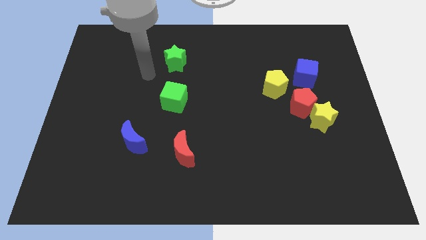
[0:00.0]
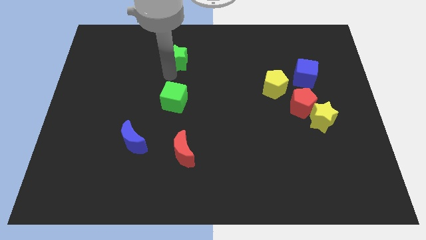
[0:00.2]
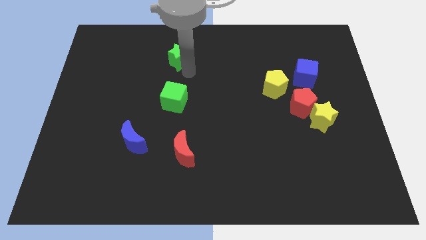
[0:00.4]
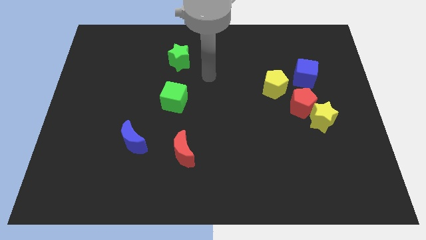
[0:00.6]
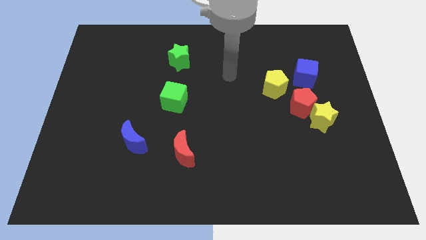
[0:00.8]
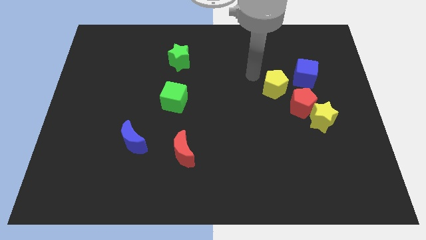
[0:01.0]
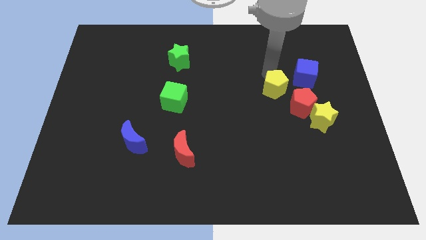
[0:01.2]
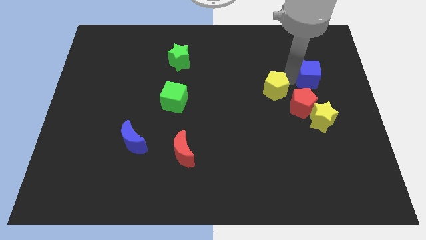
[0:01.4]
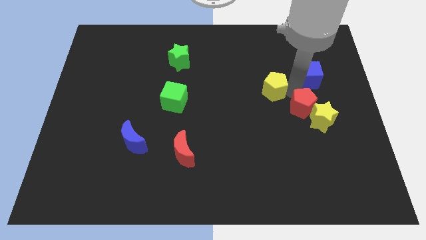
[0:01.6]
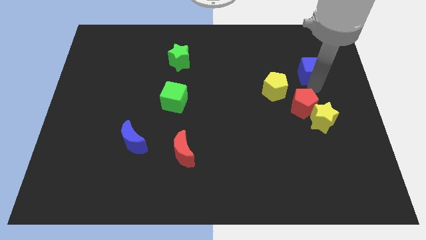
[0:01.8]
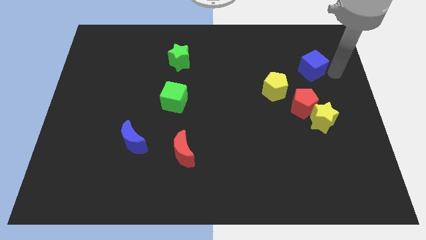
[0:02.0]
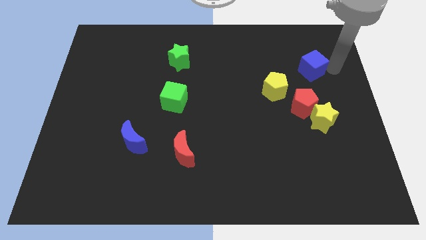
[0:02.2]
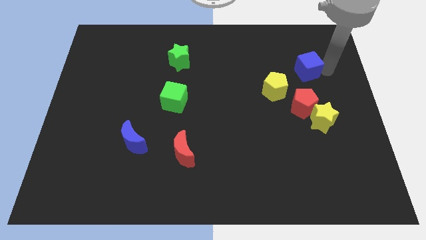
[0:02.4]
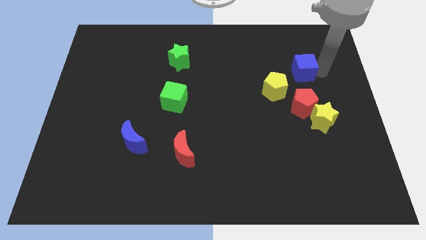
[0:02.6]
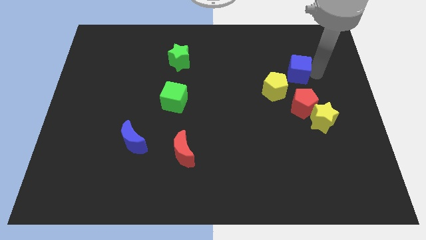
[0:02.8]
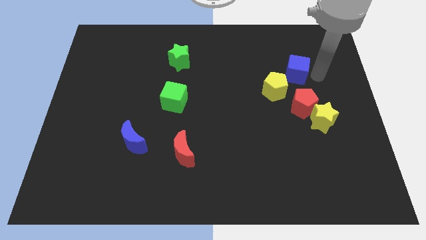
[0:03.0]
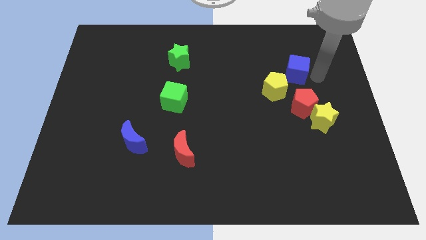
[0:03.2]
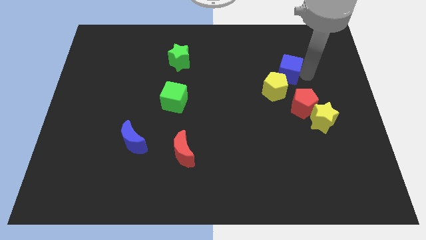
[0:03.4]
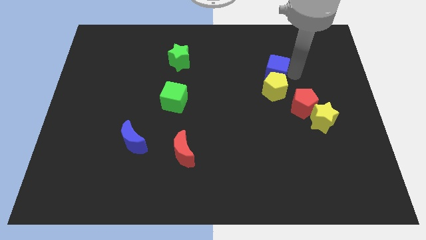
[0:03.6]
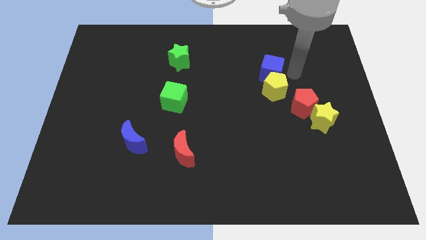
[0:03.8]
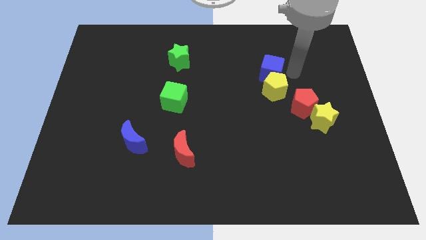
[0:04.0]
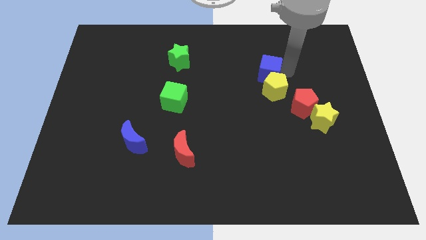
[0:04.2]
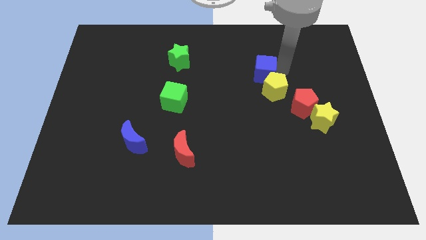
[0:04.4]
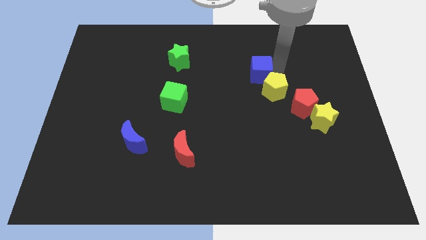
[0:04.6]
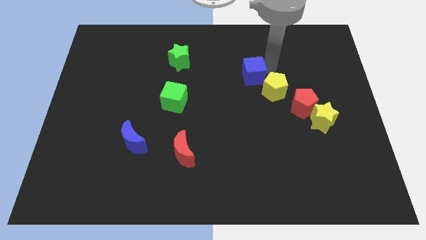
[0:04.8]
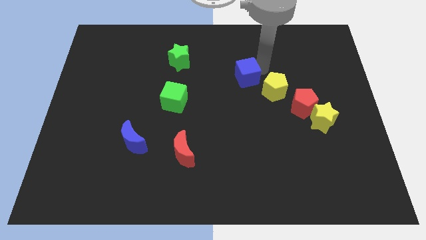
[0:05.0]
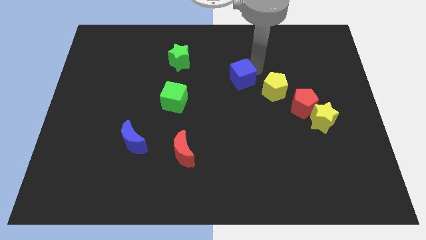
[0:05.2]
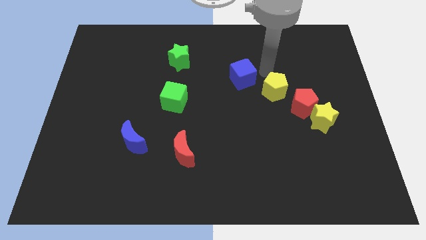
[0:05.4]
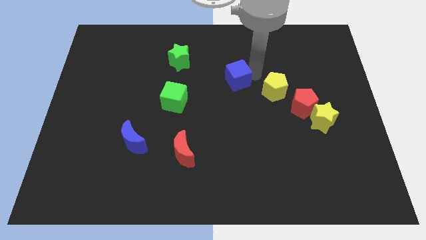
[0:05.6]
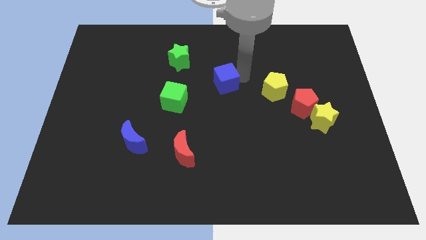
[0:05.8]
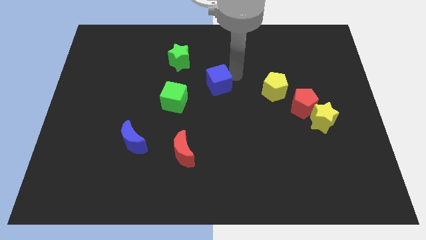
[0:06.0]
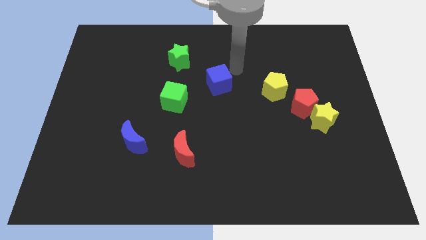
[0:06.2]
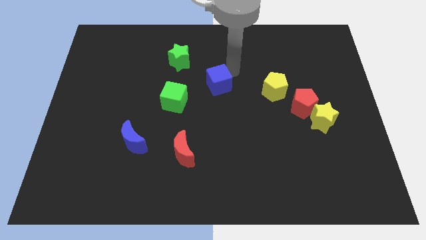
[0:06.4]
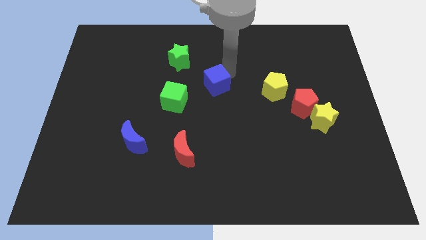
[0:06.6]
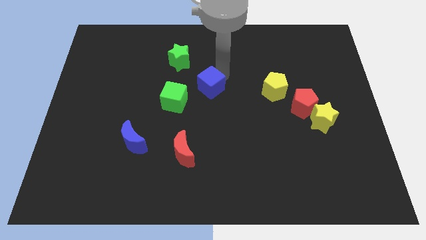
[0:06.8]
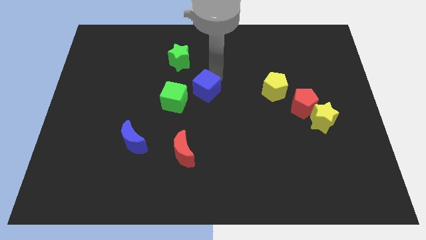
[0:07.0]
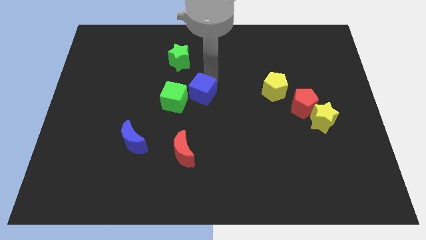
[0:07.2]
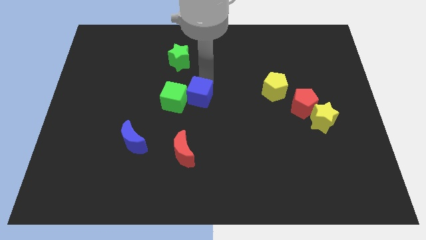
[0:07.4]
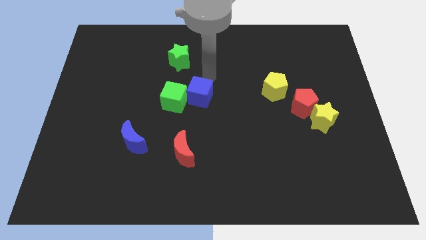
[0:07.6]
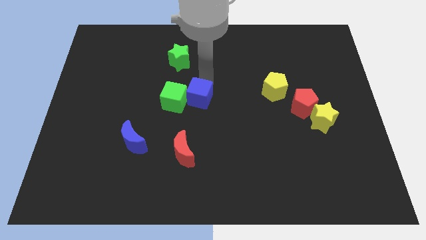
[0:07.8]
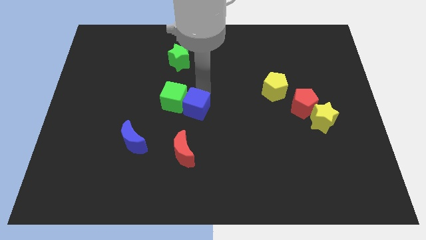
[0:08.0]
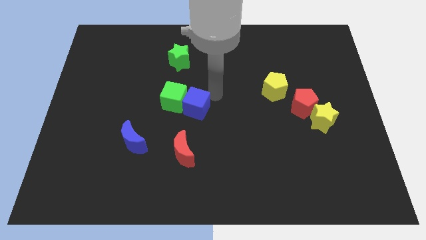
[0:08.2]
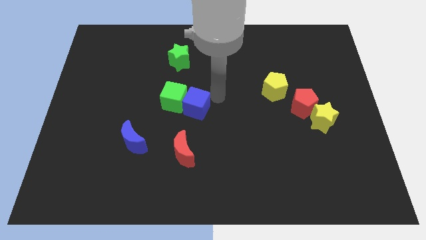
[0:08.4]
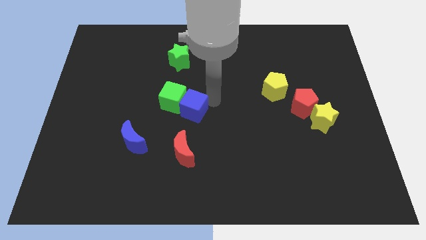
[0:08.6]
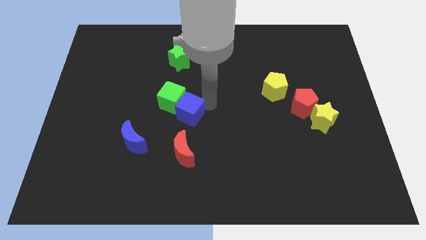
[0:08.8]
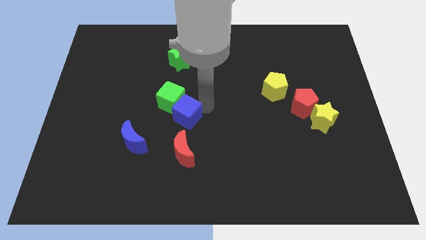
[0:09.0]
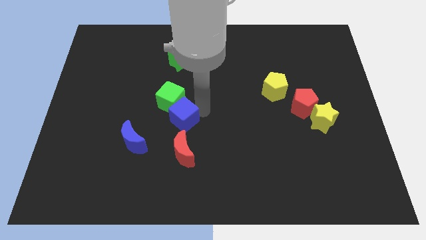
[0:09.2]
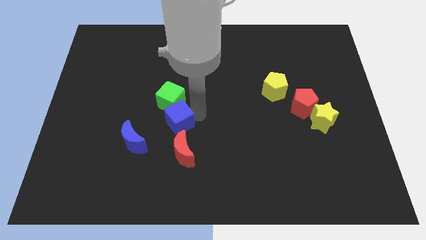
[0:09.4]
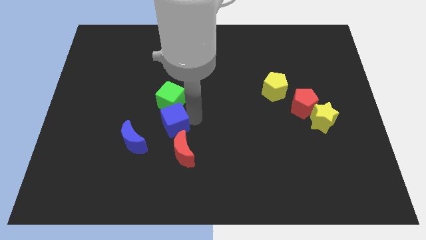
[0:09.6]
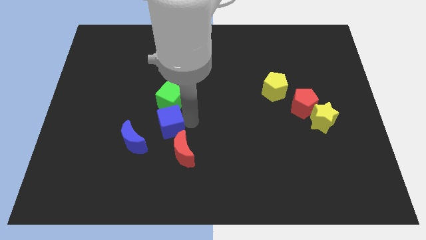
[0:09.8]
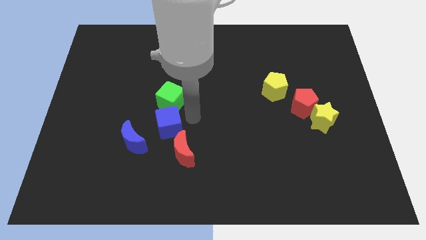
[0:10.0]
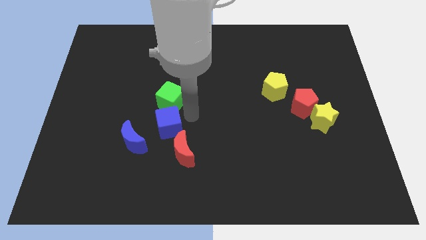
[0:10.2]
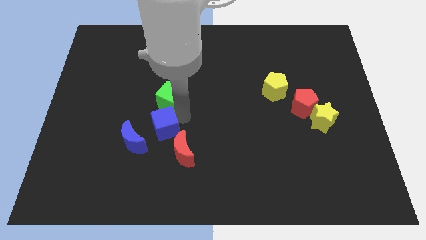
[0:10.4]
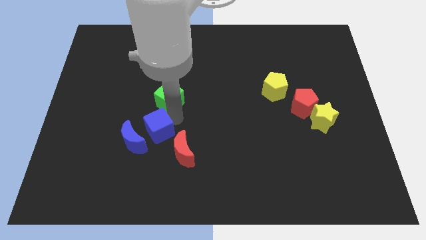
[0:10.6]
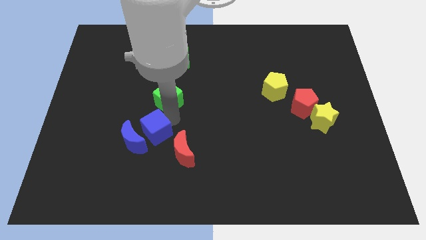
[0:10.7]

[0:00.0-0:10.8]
slide the blue cube to the blue moon

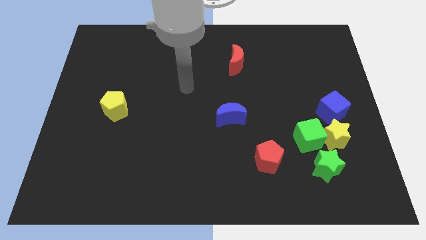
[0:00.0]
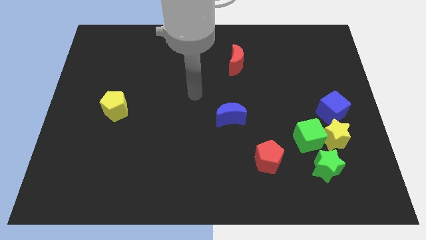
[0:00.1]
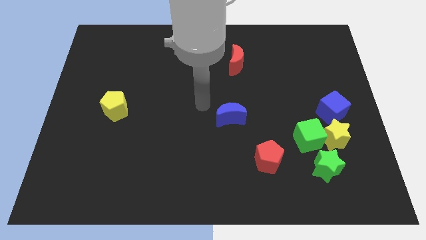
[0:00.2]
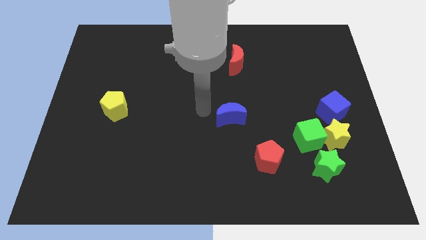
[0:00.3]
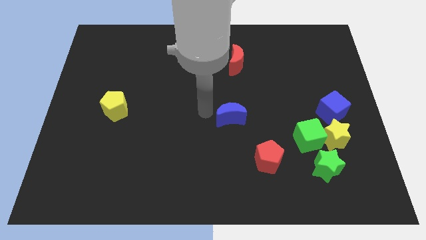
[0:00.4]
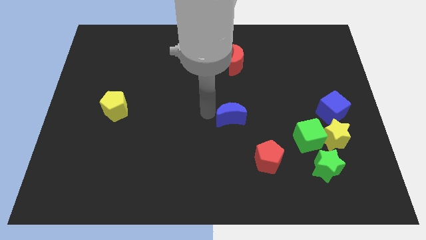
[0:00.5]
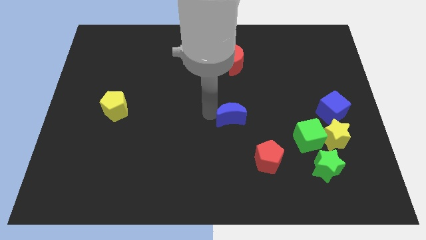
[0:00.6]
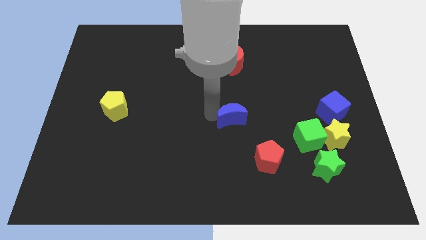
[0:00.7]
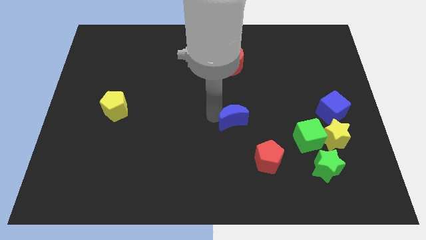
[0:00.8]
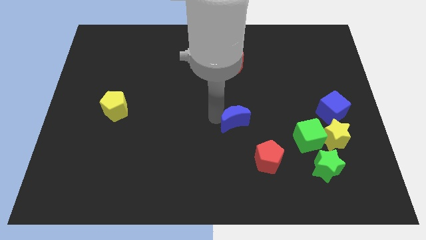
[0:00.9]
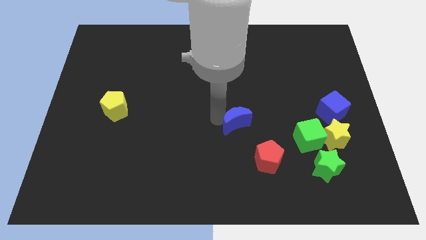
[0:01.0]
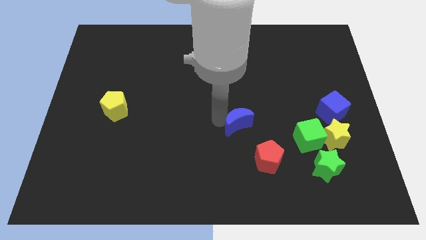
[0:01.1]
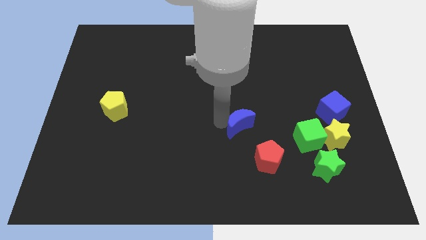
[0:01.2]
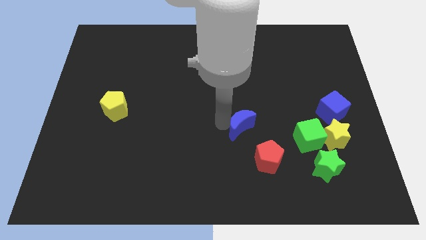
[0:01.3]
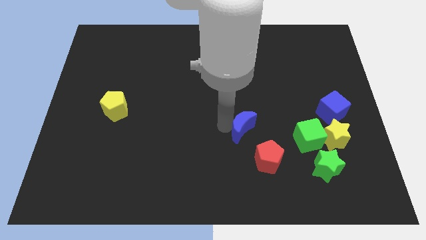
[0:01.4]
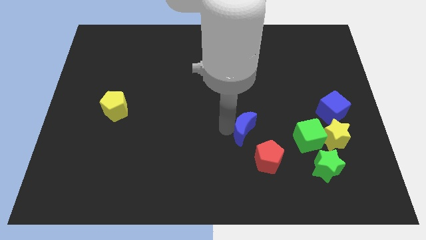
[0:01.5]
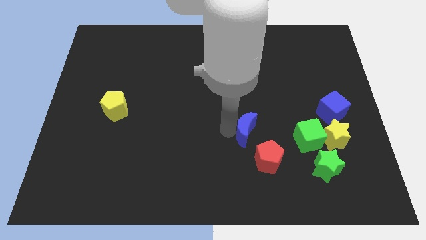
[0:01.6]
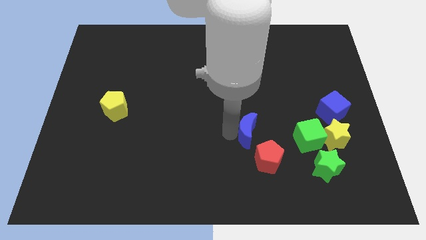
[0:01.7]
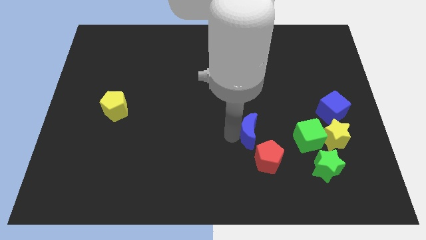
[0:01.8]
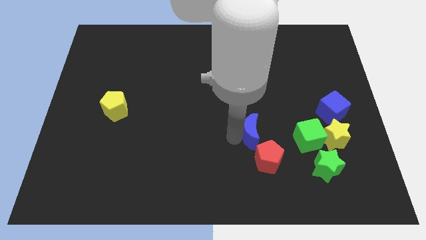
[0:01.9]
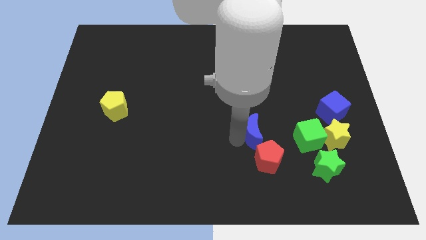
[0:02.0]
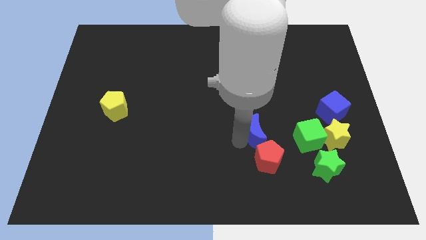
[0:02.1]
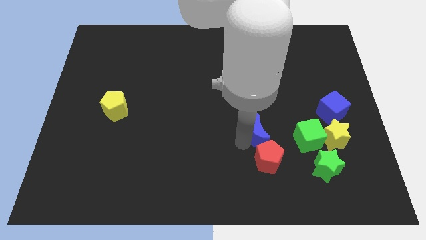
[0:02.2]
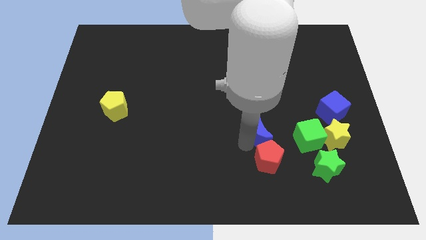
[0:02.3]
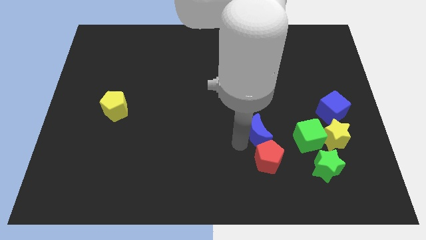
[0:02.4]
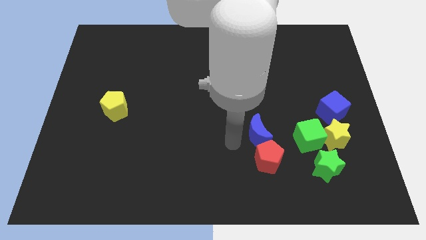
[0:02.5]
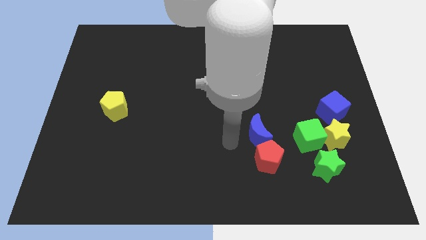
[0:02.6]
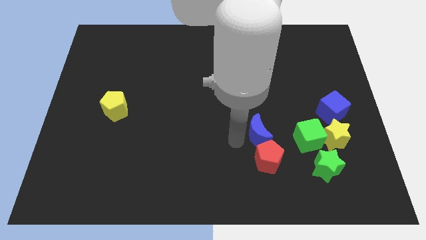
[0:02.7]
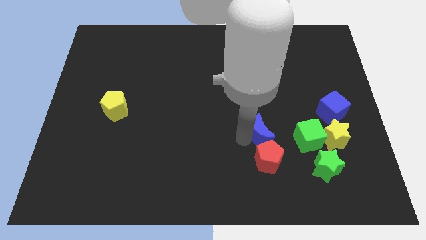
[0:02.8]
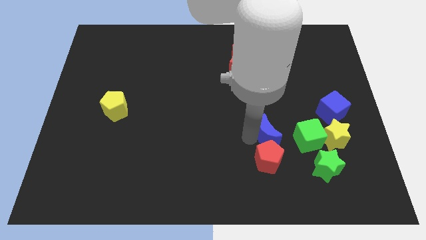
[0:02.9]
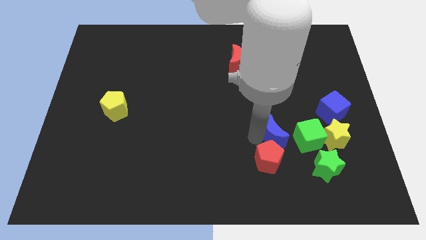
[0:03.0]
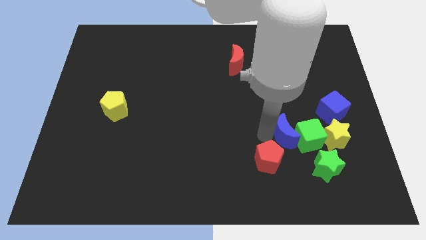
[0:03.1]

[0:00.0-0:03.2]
slide the blue moon towards the green cube
